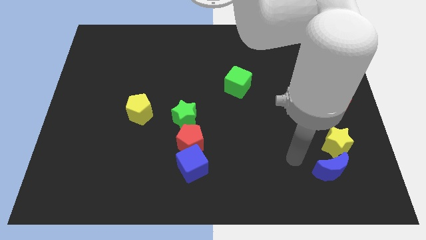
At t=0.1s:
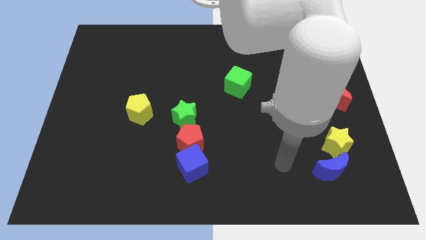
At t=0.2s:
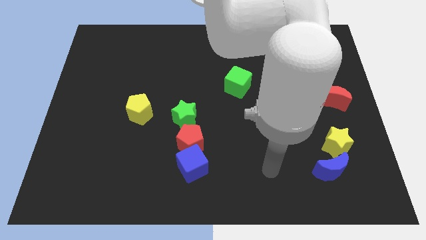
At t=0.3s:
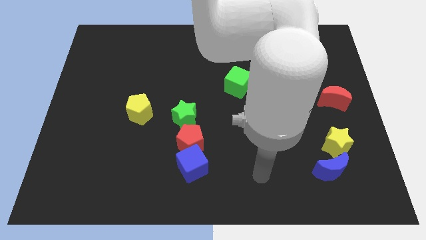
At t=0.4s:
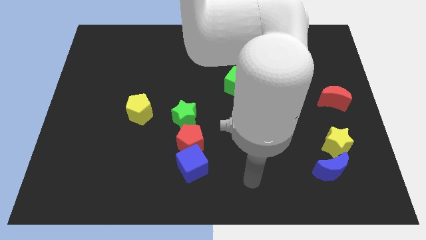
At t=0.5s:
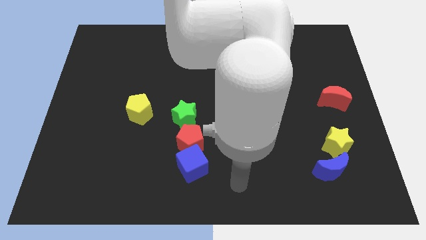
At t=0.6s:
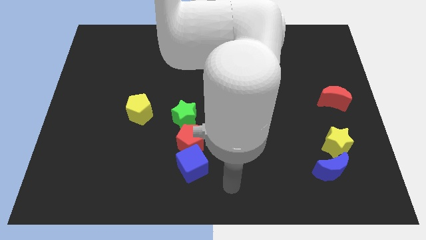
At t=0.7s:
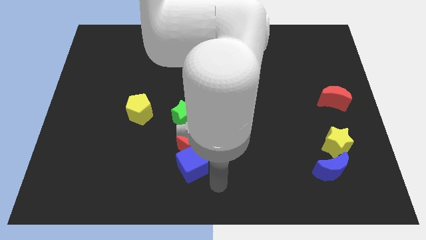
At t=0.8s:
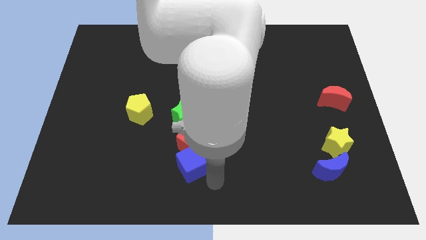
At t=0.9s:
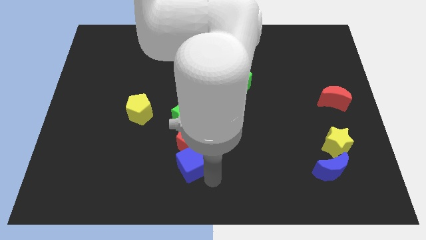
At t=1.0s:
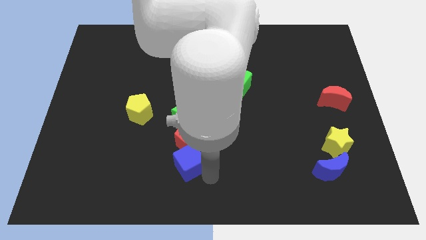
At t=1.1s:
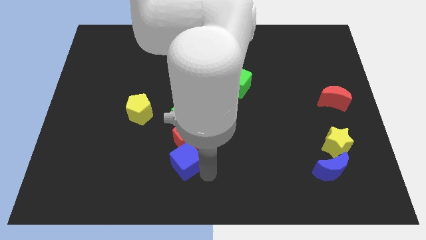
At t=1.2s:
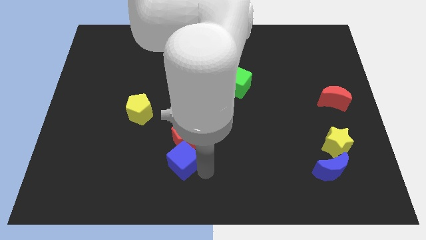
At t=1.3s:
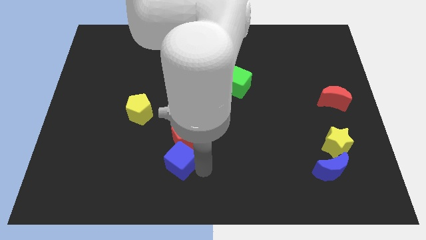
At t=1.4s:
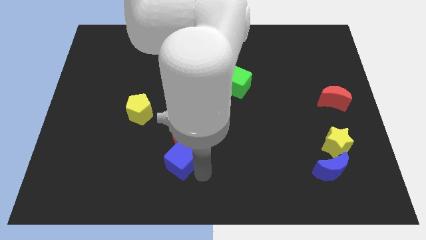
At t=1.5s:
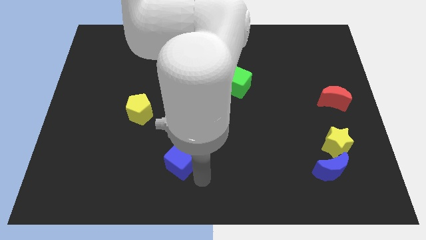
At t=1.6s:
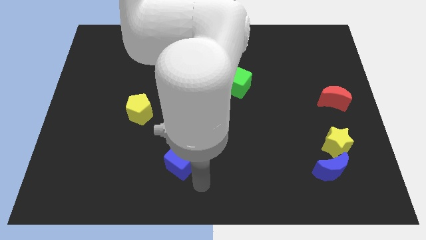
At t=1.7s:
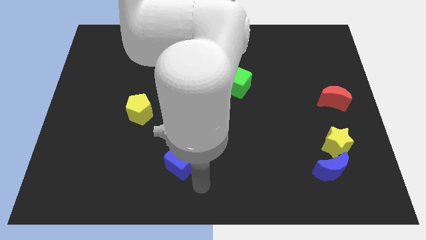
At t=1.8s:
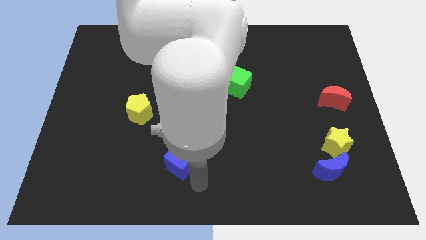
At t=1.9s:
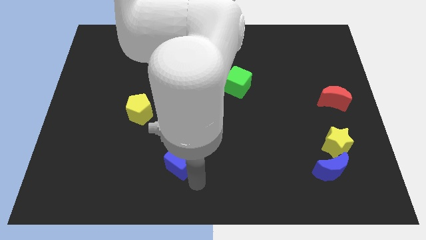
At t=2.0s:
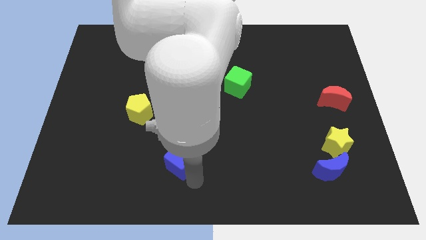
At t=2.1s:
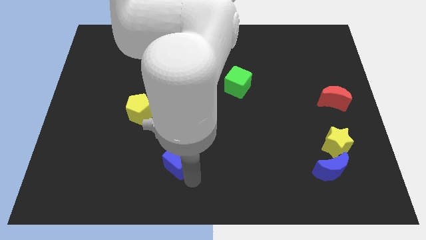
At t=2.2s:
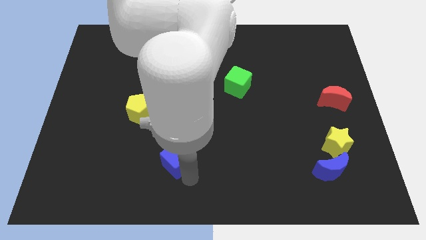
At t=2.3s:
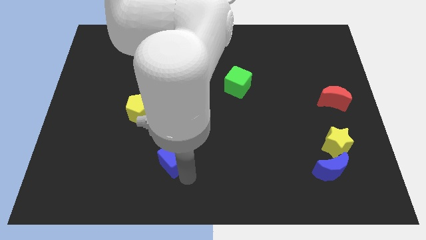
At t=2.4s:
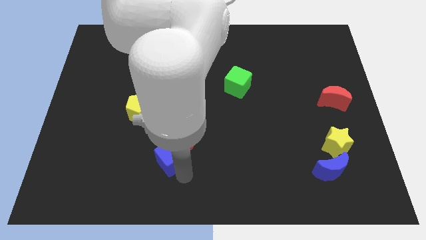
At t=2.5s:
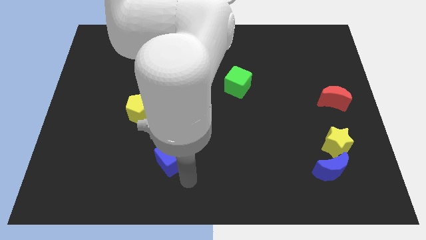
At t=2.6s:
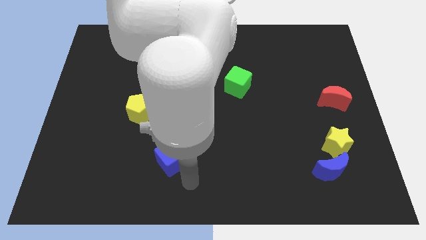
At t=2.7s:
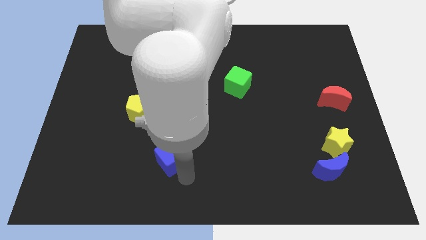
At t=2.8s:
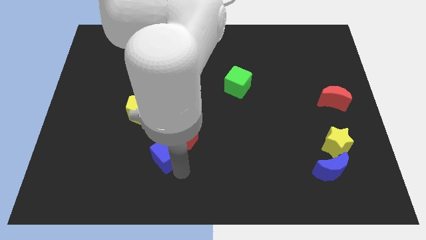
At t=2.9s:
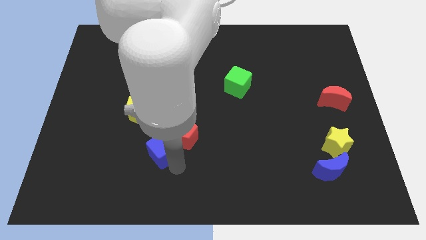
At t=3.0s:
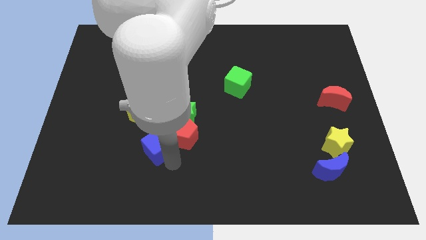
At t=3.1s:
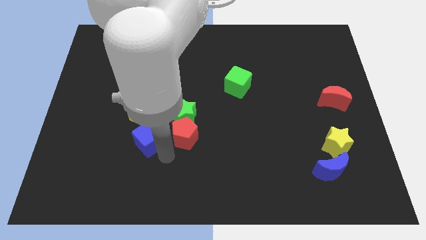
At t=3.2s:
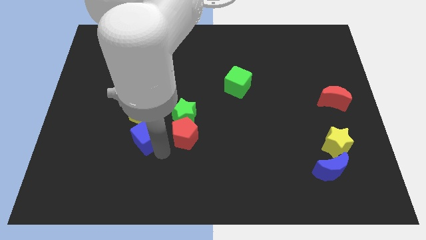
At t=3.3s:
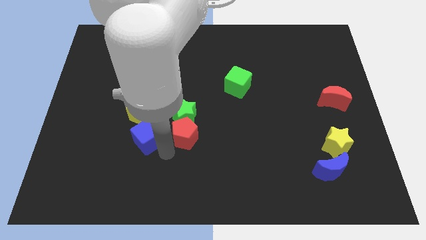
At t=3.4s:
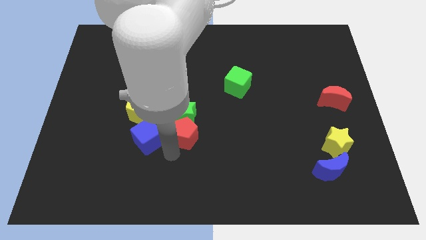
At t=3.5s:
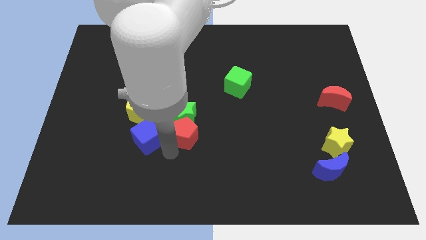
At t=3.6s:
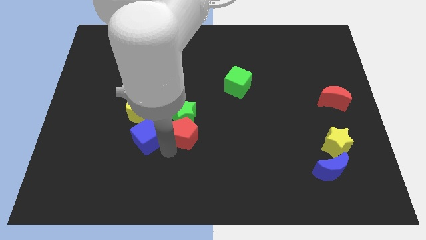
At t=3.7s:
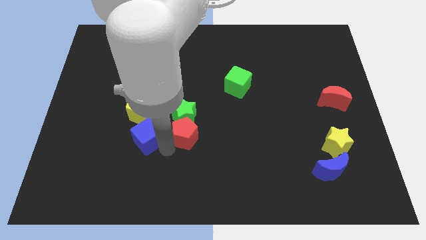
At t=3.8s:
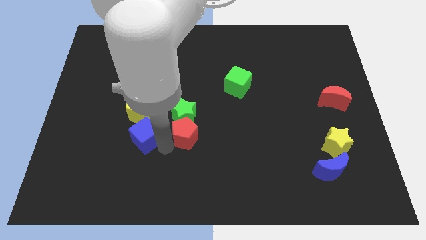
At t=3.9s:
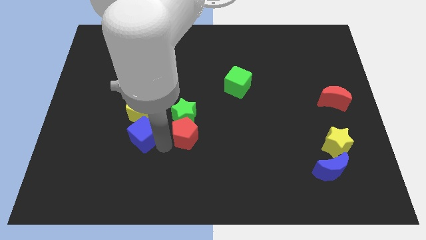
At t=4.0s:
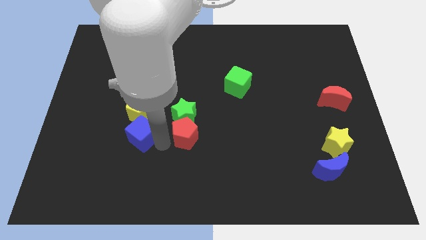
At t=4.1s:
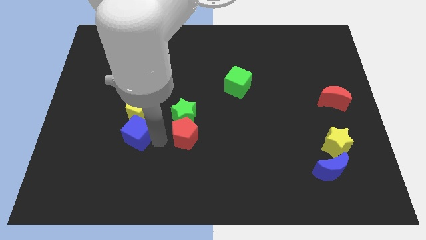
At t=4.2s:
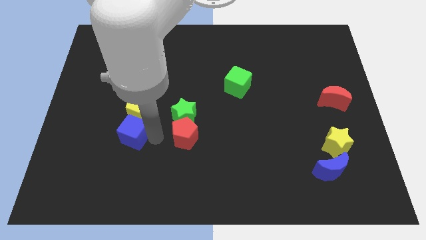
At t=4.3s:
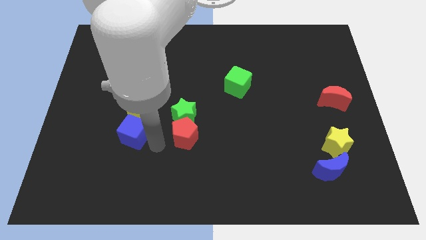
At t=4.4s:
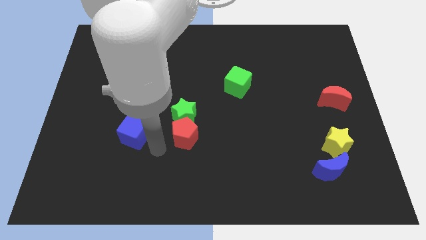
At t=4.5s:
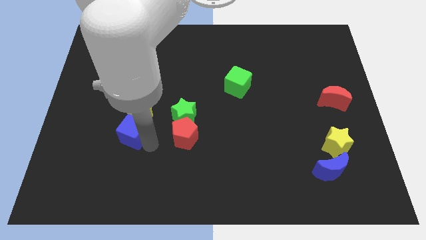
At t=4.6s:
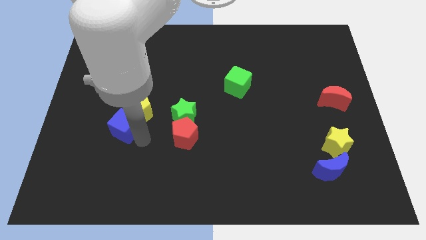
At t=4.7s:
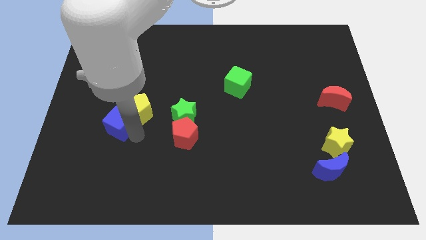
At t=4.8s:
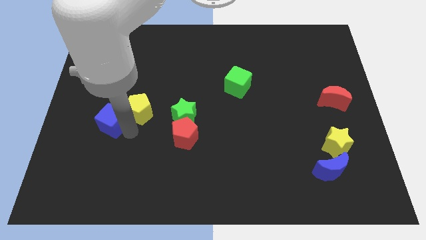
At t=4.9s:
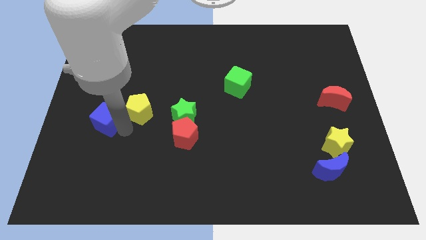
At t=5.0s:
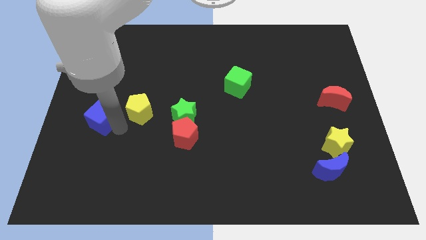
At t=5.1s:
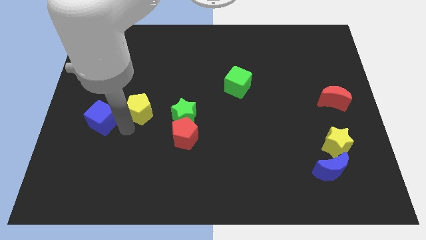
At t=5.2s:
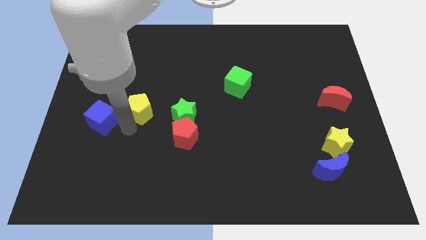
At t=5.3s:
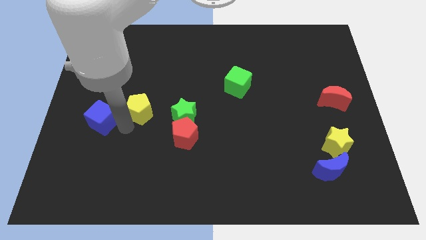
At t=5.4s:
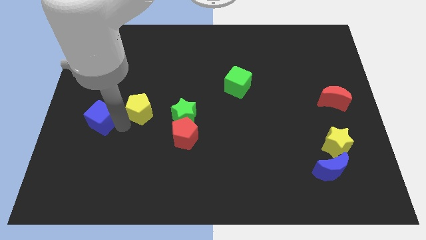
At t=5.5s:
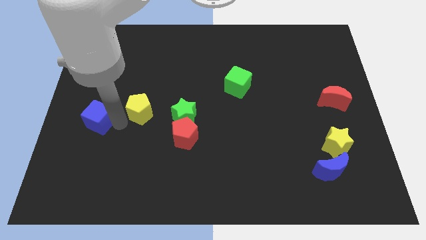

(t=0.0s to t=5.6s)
push the blue cube to the left side
